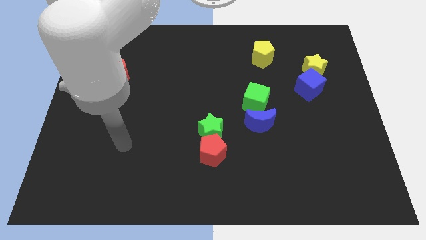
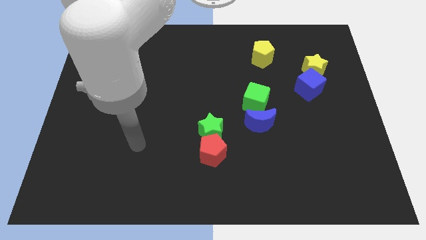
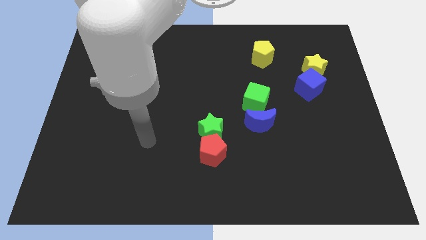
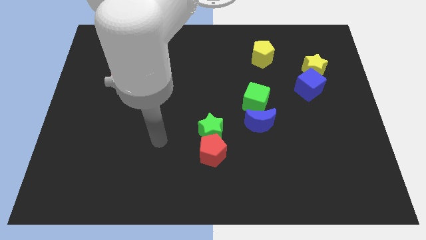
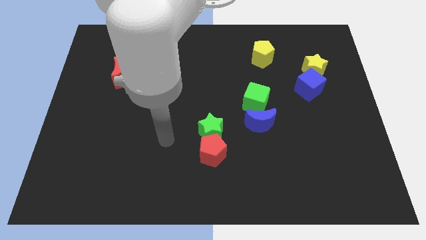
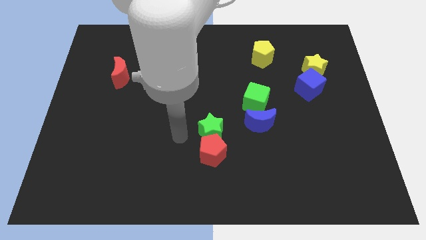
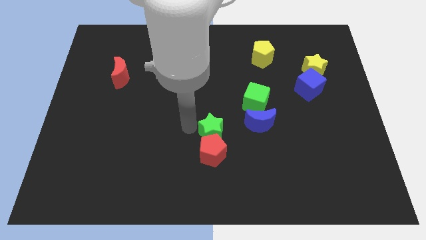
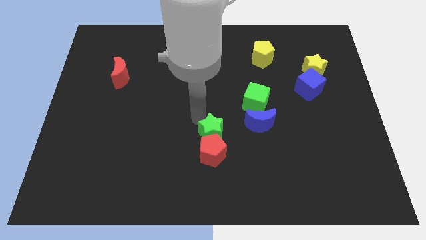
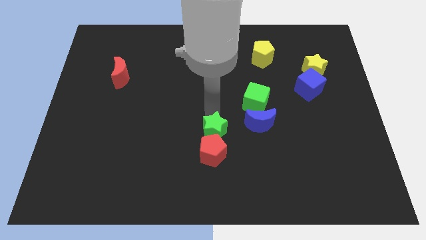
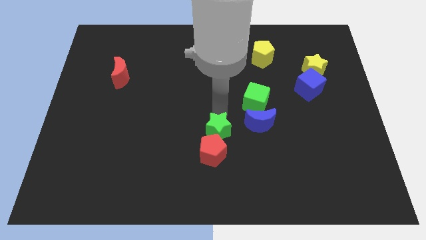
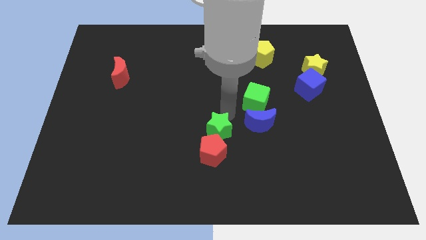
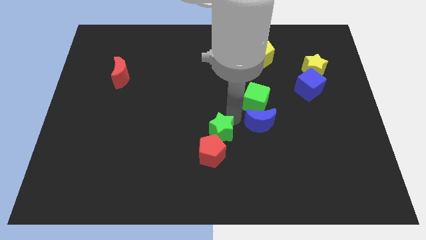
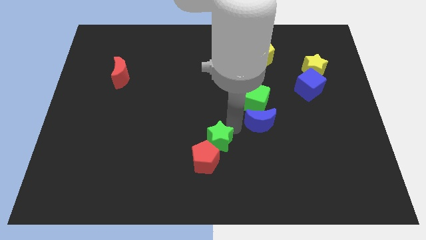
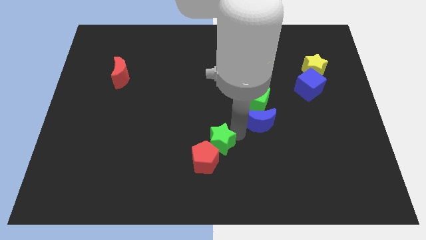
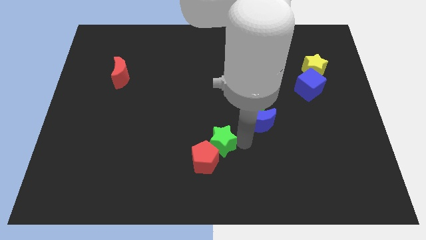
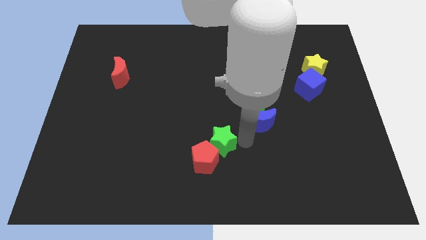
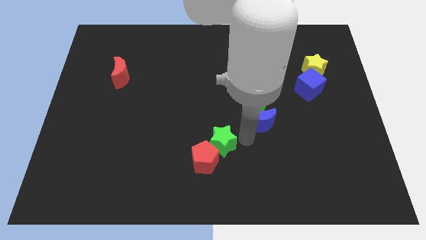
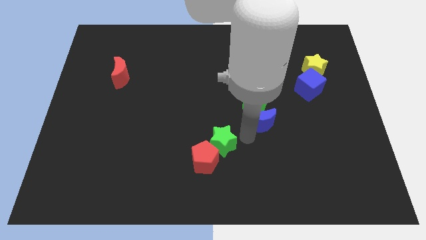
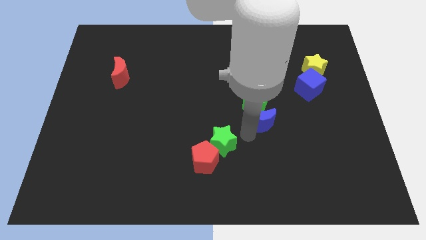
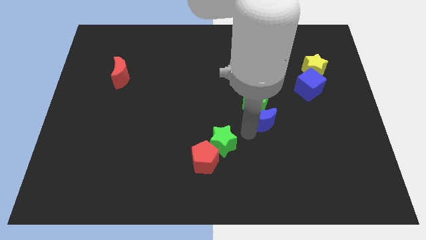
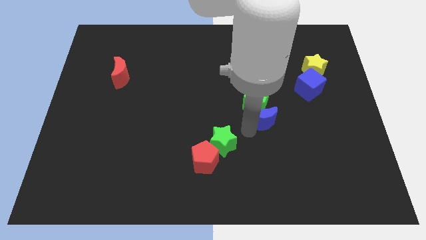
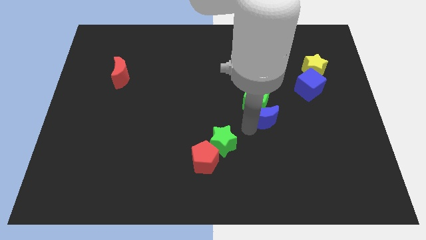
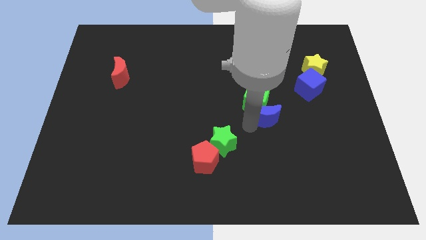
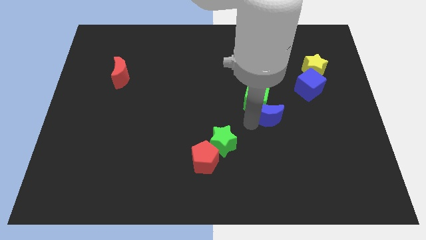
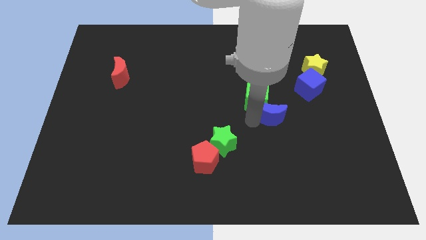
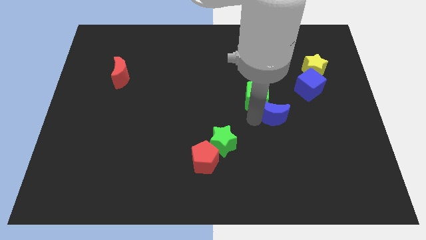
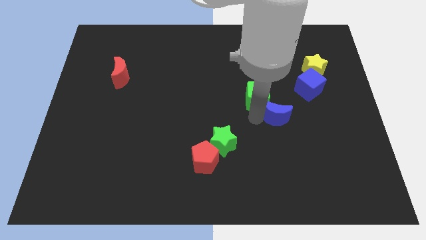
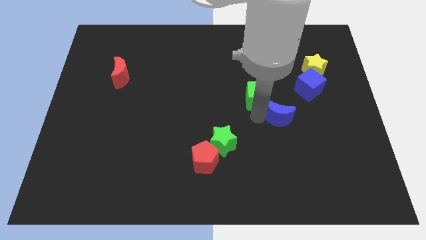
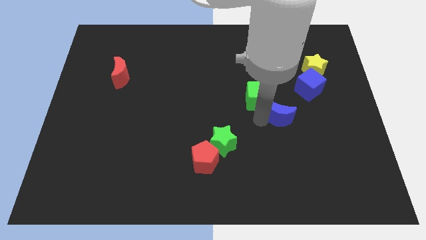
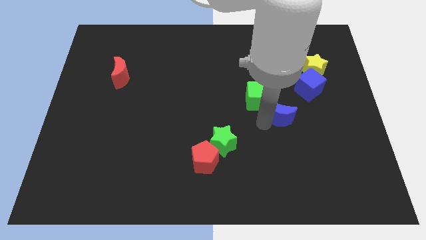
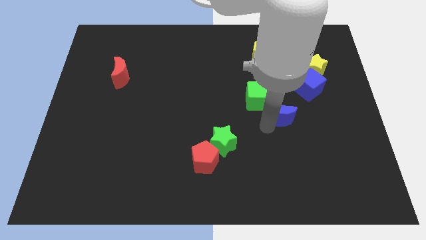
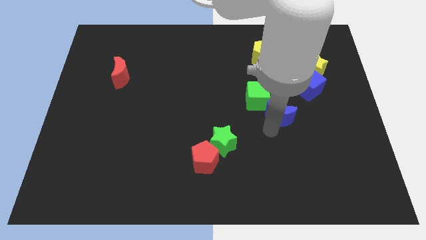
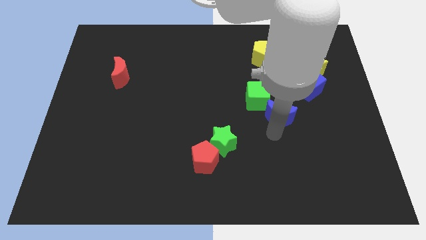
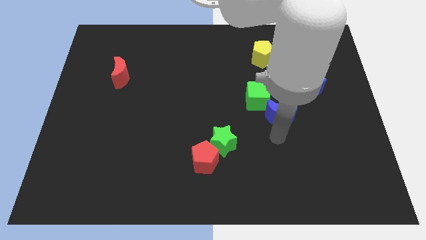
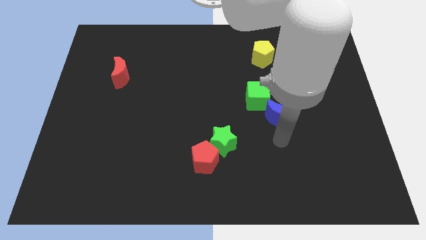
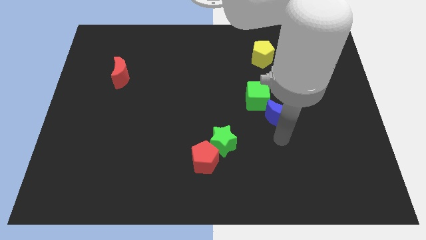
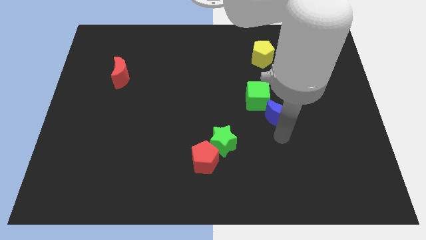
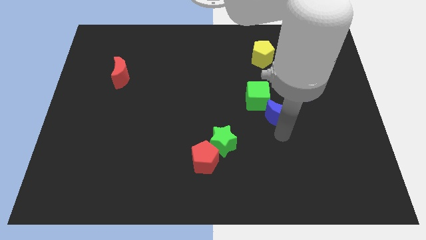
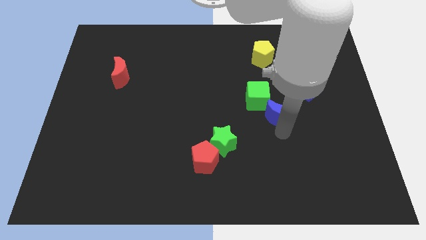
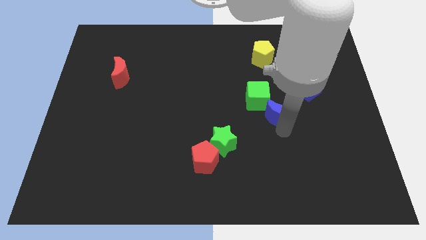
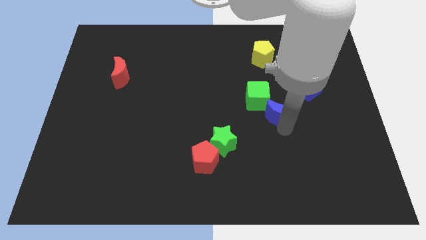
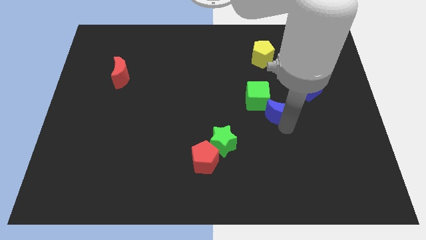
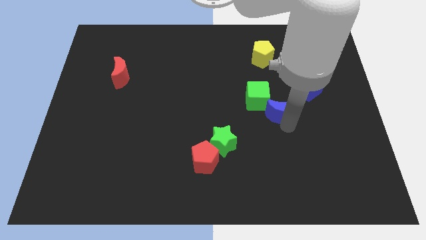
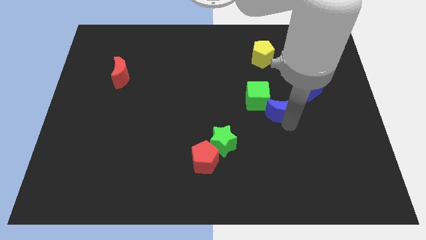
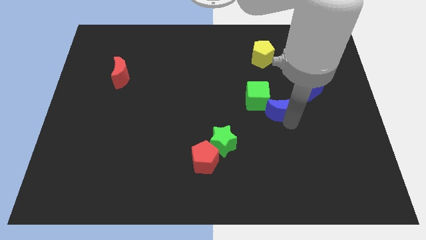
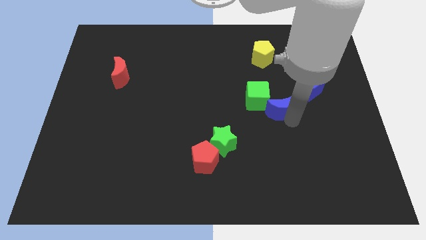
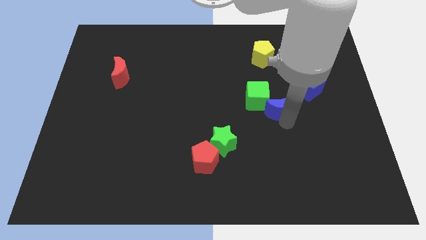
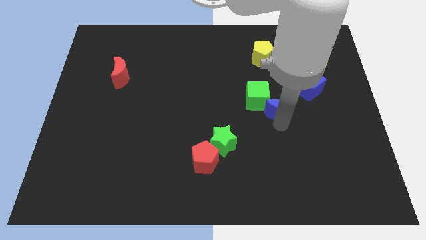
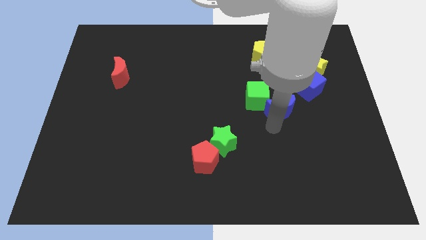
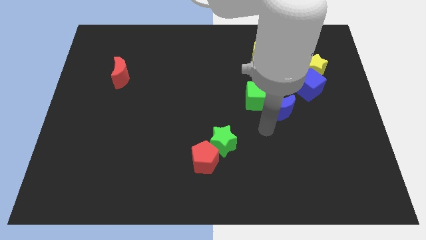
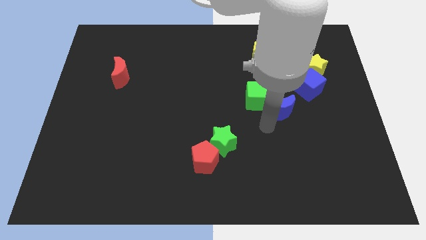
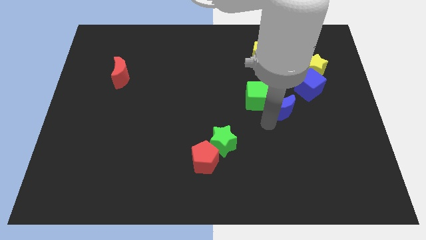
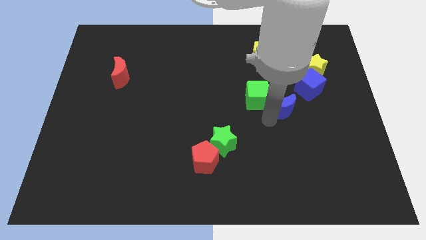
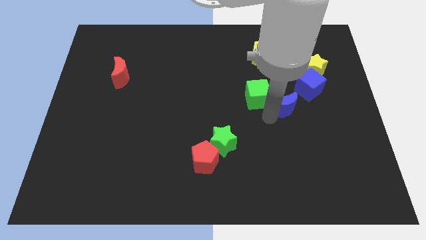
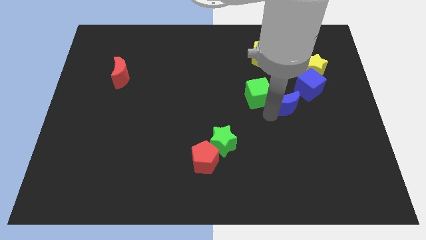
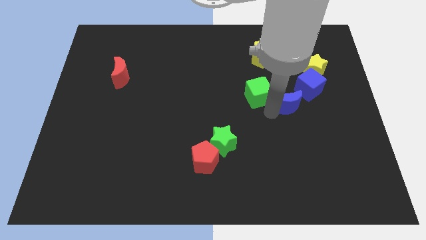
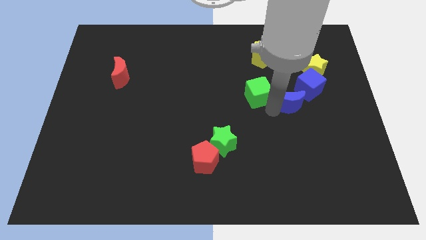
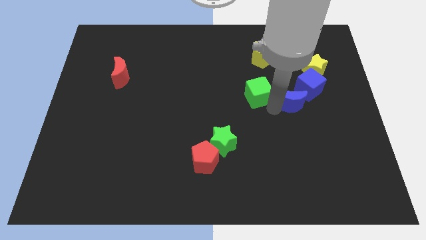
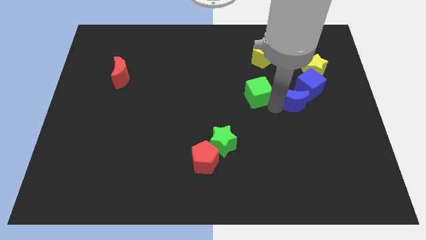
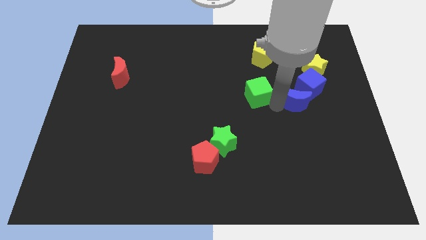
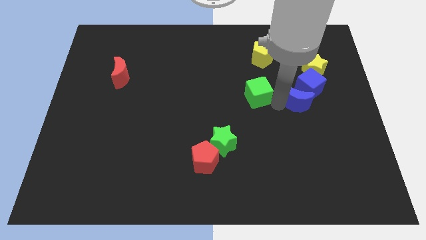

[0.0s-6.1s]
push the blue moon close to the blue cube

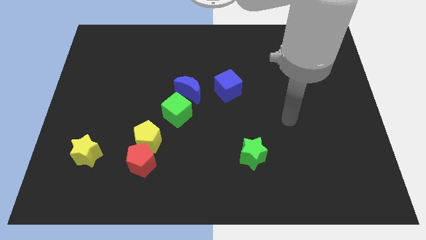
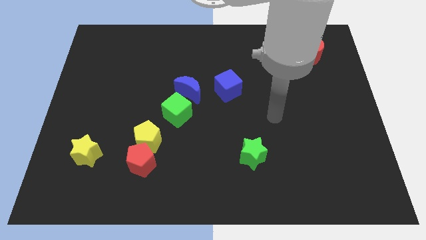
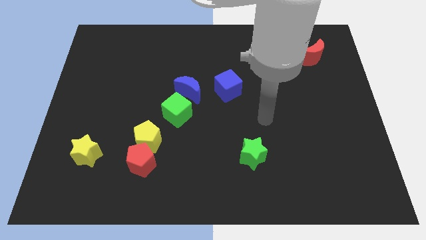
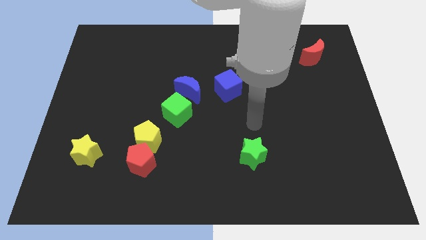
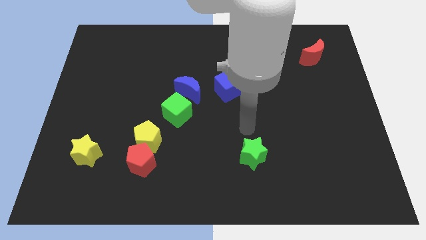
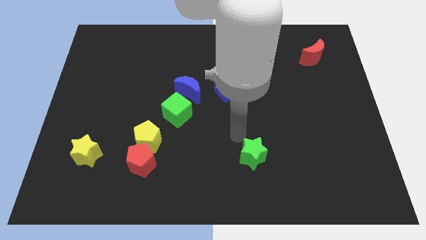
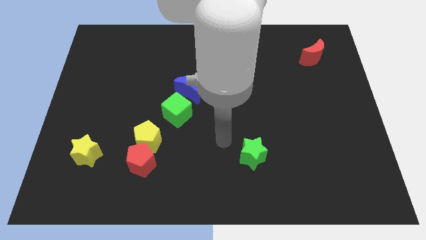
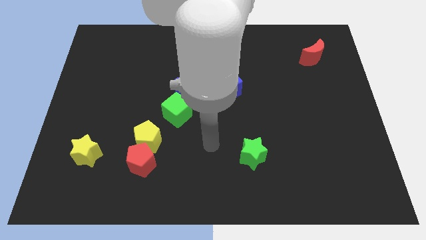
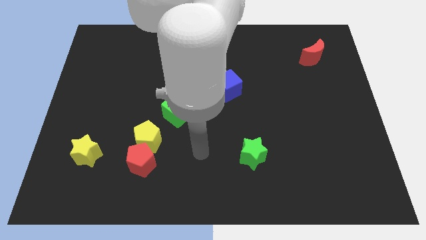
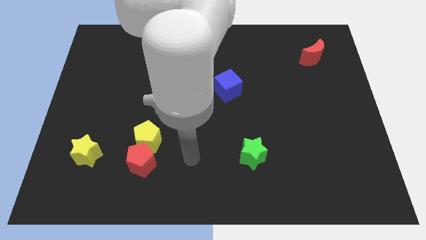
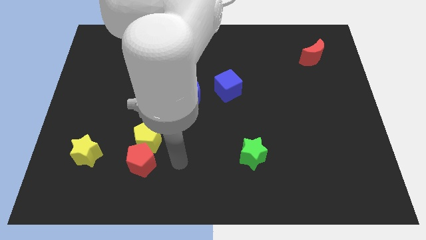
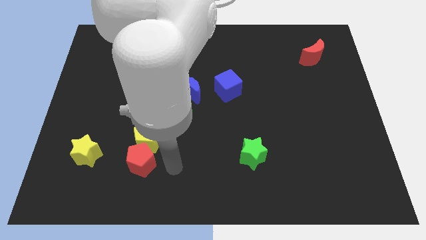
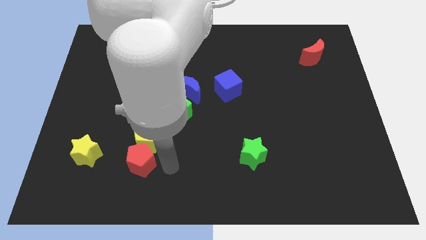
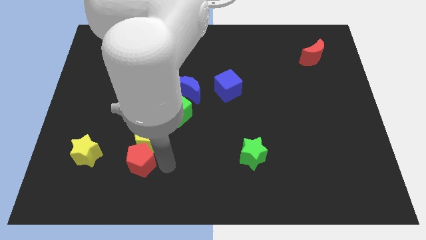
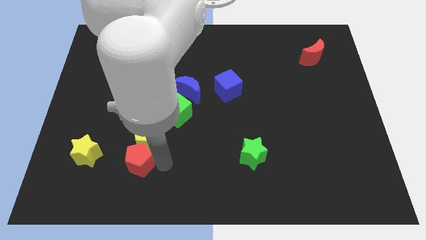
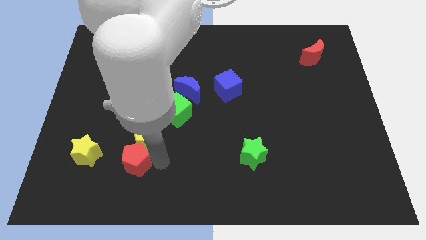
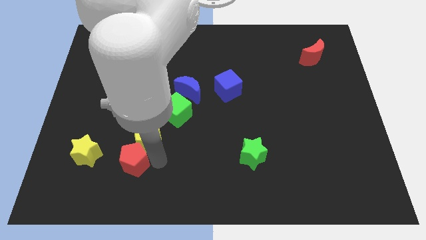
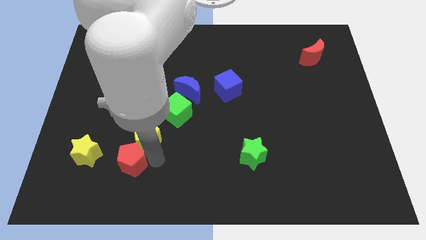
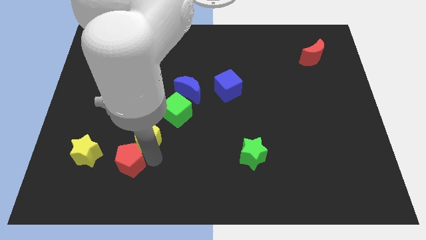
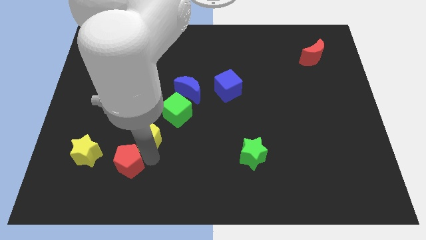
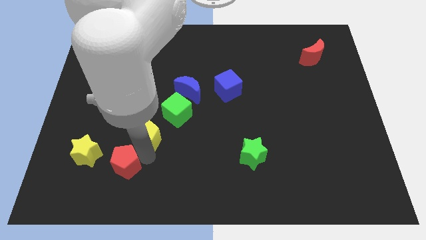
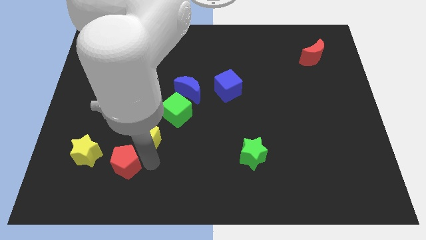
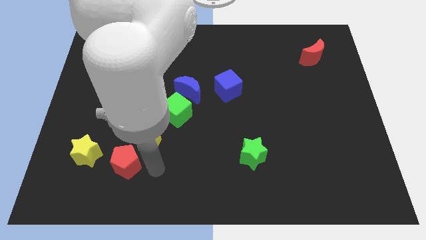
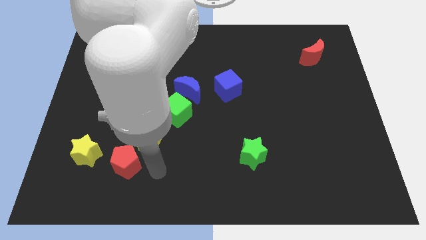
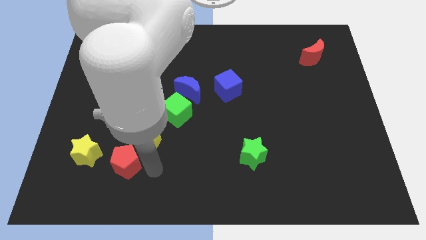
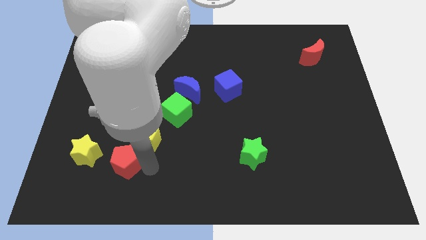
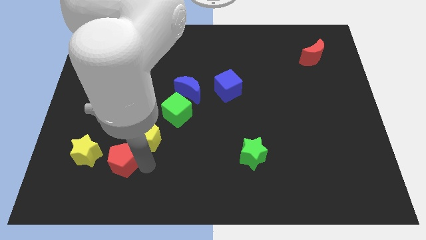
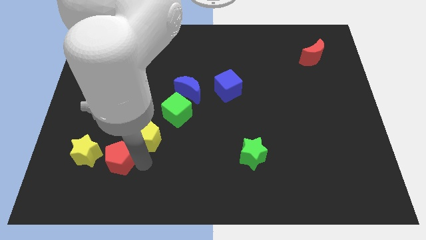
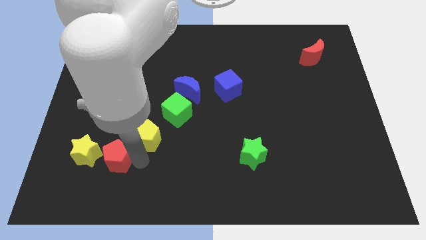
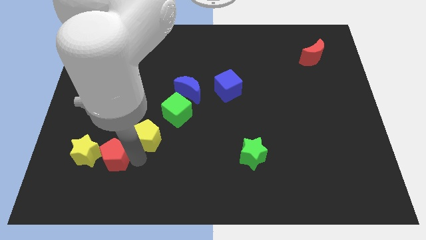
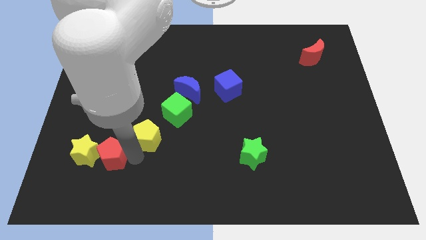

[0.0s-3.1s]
push the red pentagon to the yellow star
